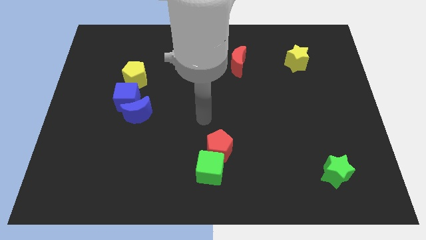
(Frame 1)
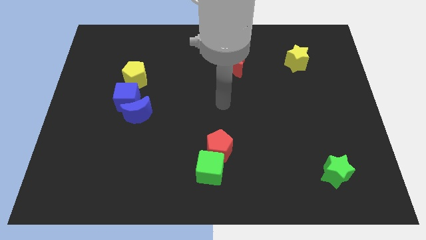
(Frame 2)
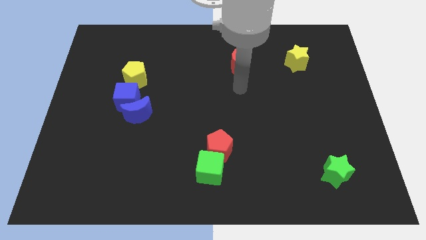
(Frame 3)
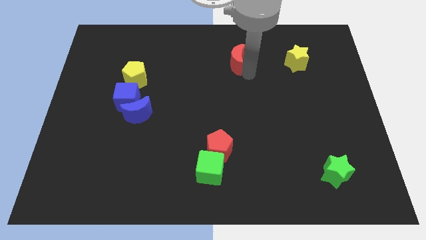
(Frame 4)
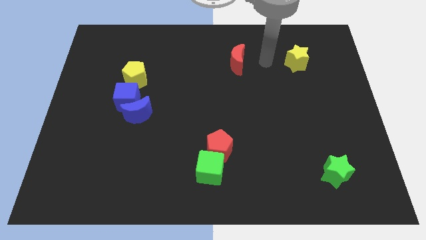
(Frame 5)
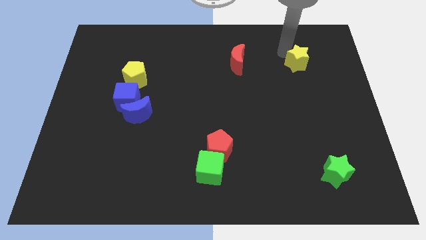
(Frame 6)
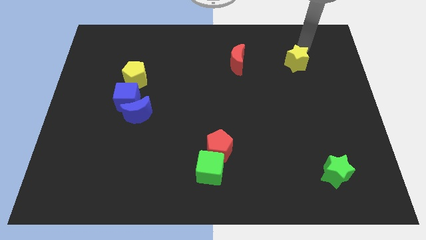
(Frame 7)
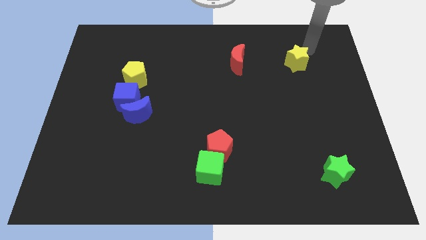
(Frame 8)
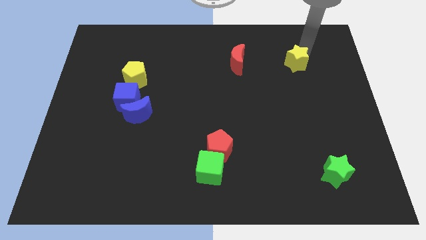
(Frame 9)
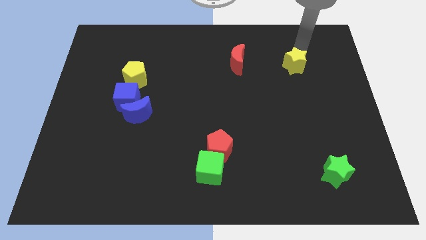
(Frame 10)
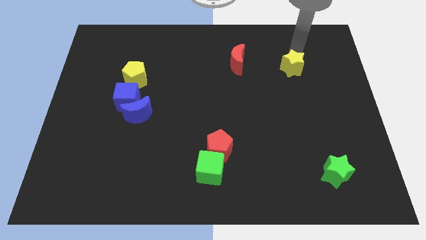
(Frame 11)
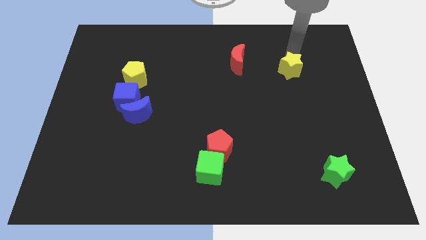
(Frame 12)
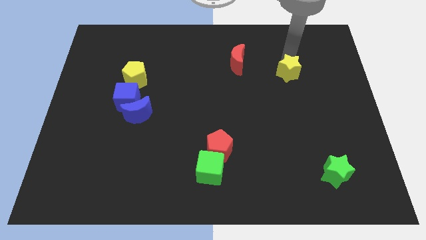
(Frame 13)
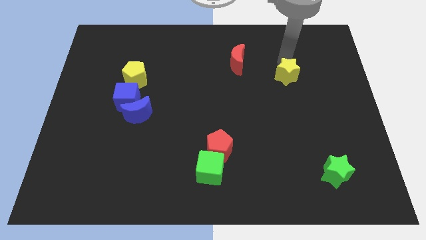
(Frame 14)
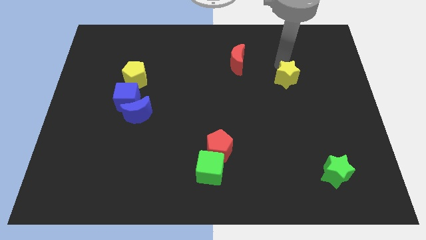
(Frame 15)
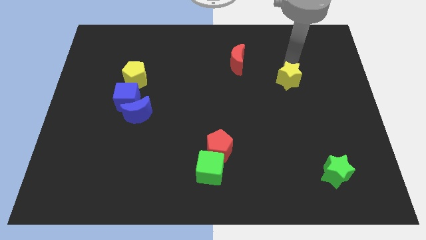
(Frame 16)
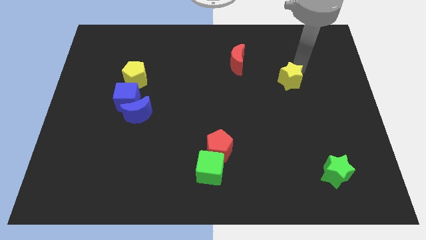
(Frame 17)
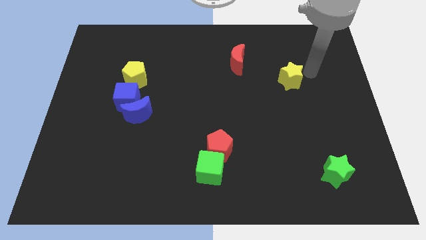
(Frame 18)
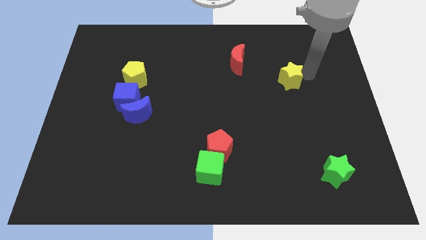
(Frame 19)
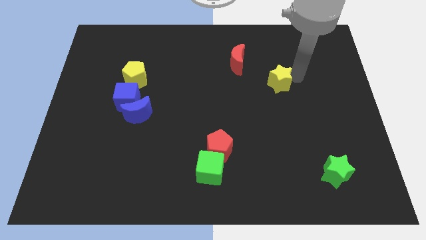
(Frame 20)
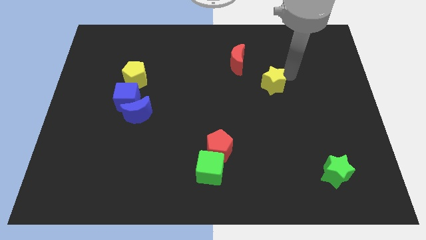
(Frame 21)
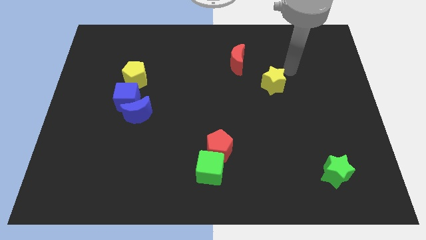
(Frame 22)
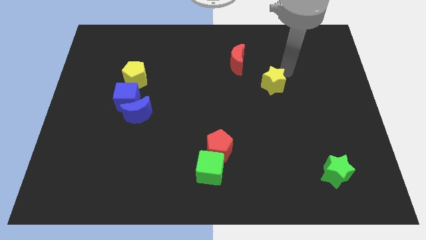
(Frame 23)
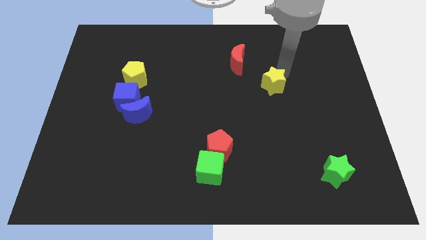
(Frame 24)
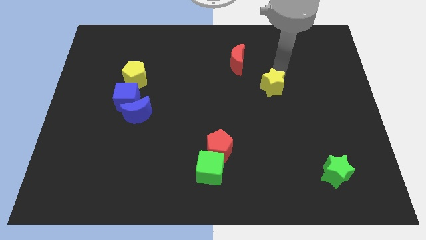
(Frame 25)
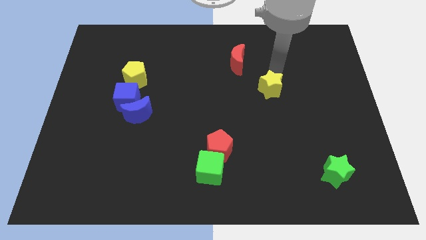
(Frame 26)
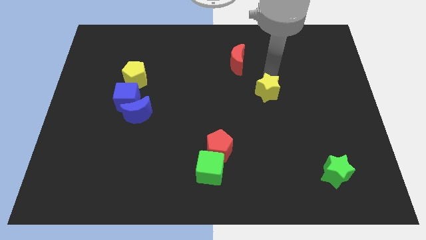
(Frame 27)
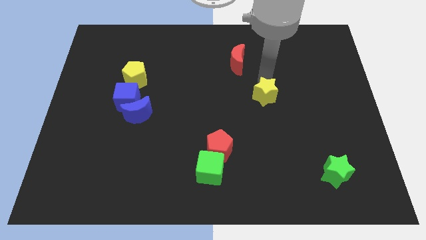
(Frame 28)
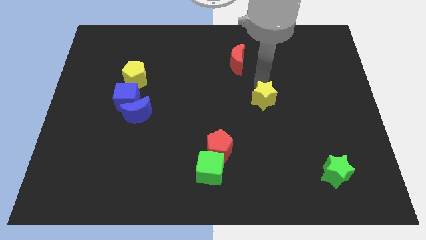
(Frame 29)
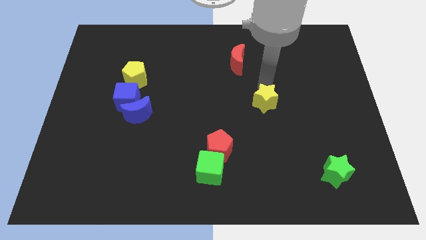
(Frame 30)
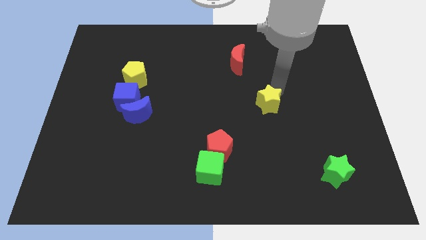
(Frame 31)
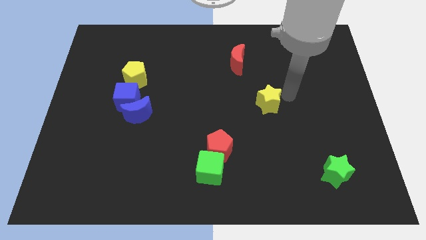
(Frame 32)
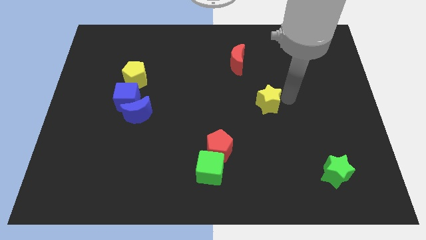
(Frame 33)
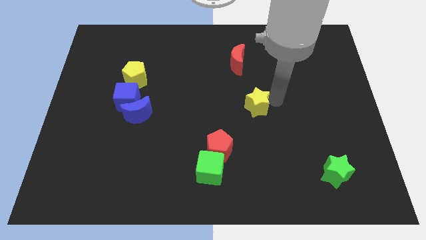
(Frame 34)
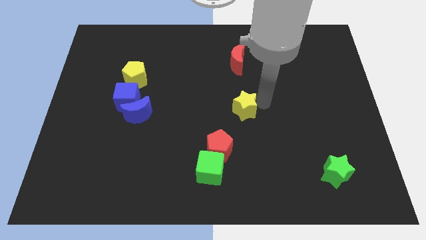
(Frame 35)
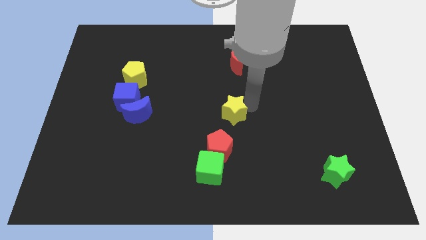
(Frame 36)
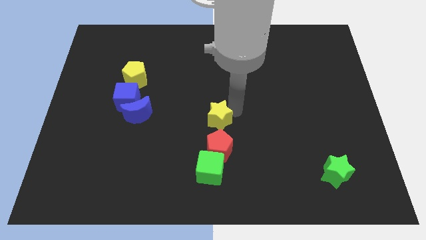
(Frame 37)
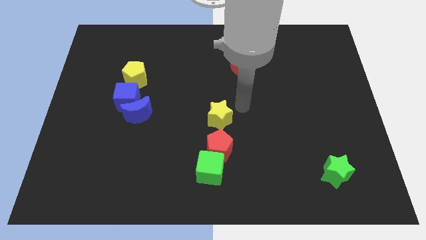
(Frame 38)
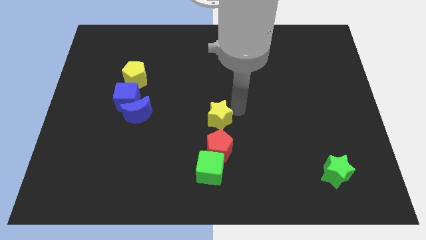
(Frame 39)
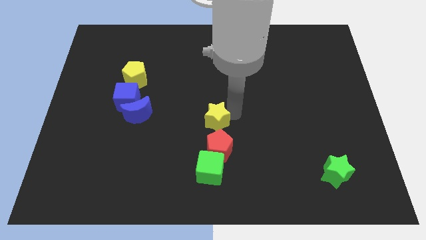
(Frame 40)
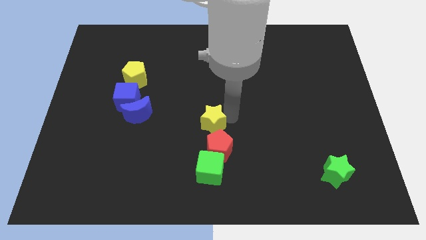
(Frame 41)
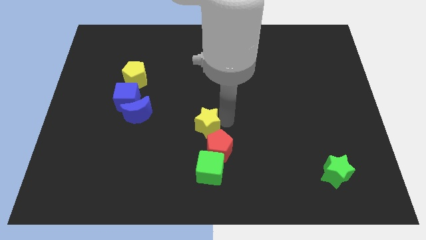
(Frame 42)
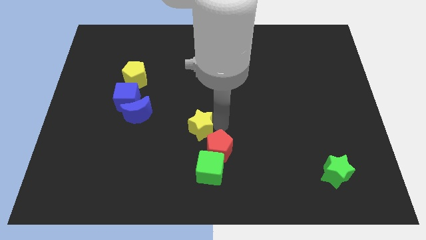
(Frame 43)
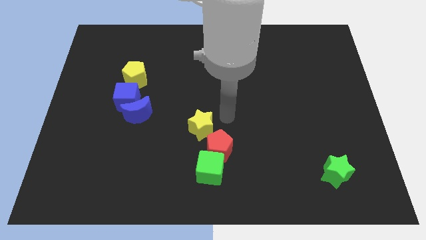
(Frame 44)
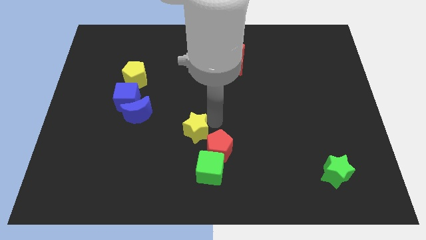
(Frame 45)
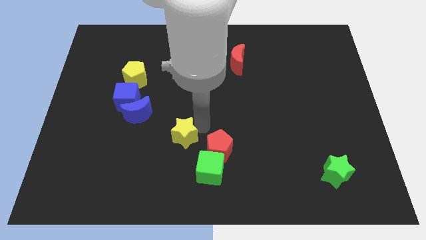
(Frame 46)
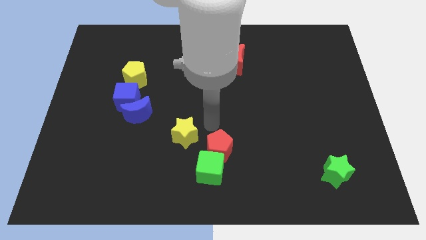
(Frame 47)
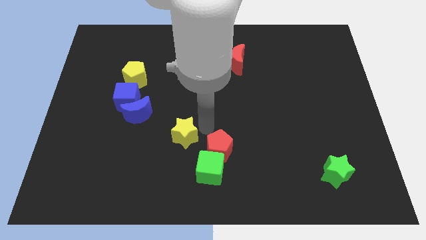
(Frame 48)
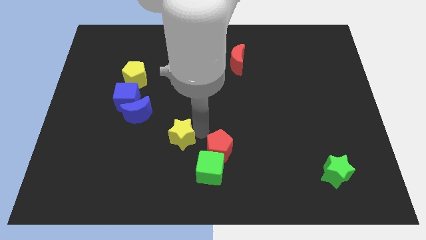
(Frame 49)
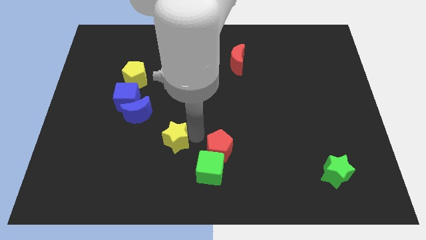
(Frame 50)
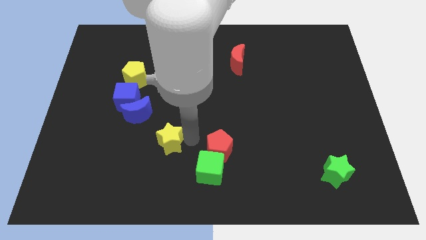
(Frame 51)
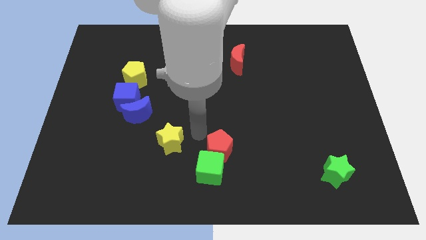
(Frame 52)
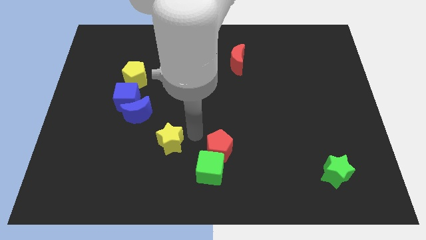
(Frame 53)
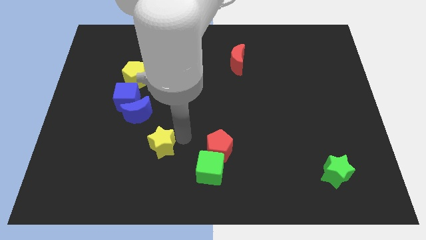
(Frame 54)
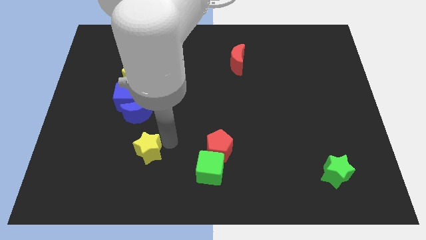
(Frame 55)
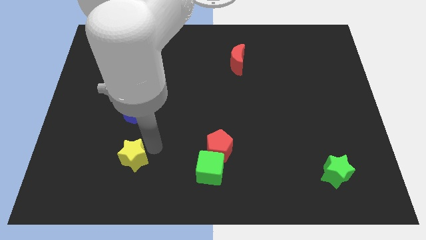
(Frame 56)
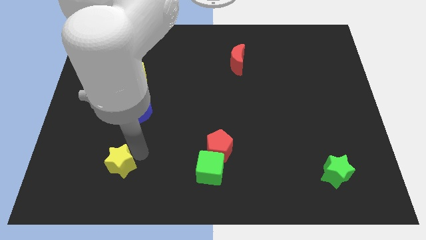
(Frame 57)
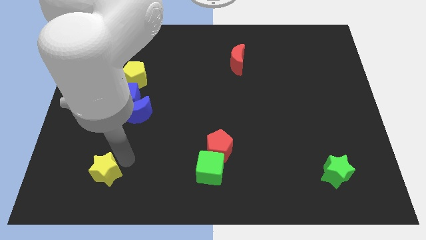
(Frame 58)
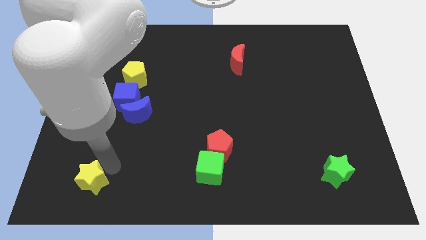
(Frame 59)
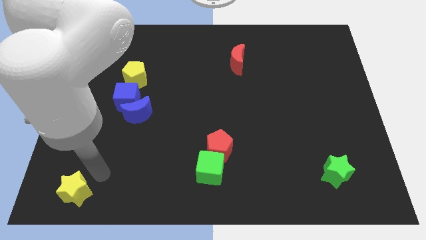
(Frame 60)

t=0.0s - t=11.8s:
push the yellow star to the bottom left of the board
